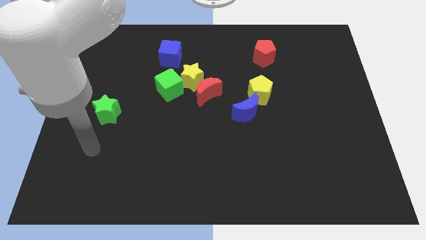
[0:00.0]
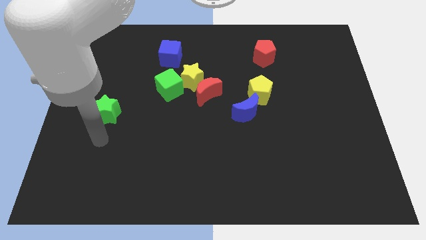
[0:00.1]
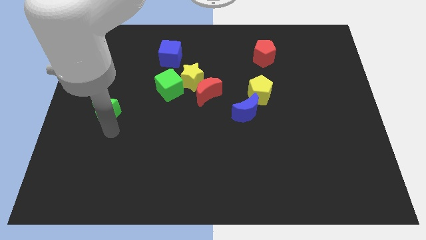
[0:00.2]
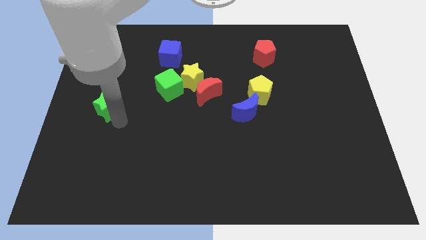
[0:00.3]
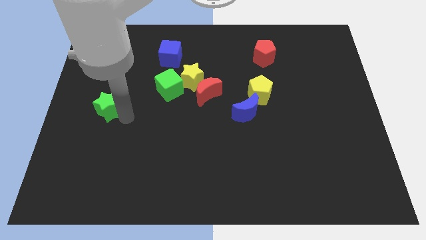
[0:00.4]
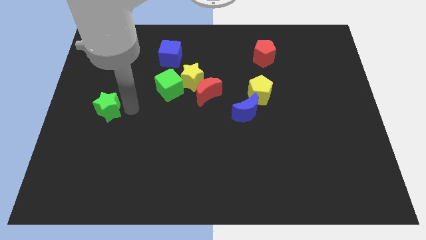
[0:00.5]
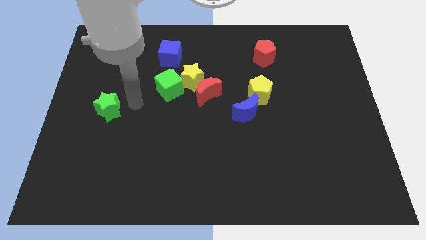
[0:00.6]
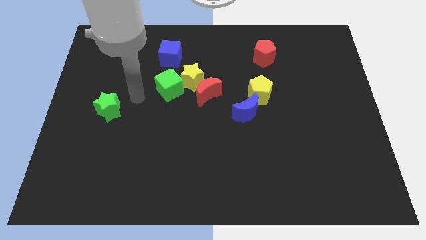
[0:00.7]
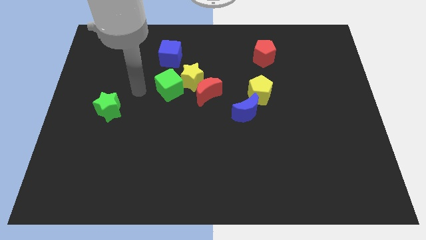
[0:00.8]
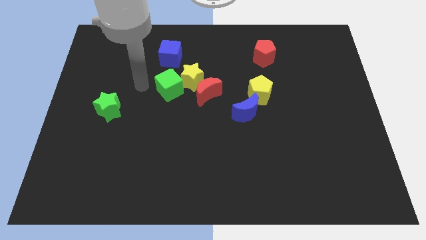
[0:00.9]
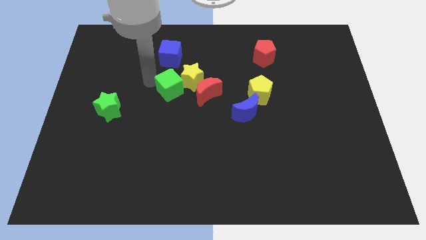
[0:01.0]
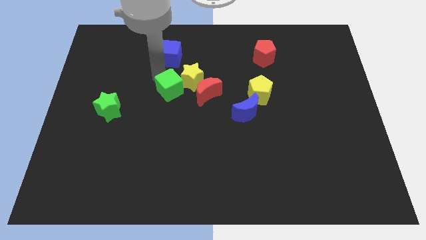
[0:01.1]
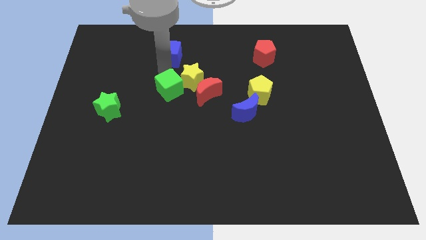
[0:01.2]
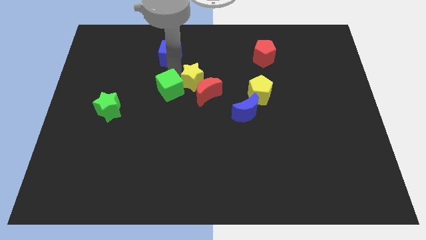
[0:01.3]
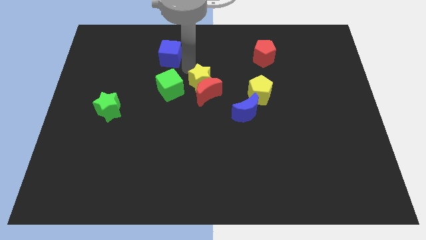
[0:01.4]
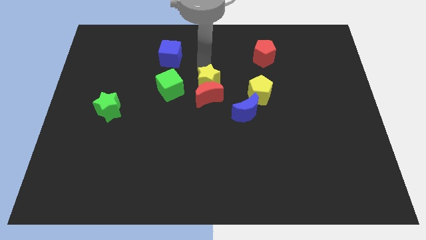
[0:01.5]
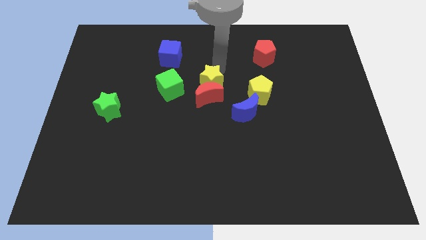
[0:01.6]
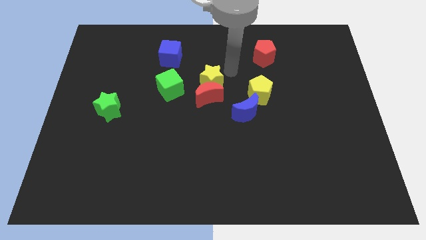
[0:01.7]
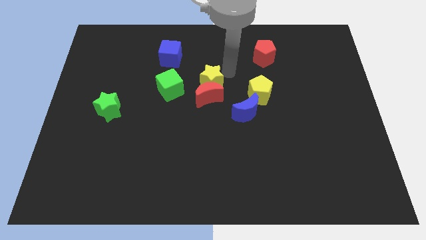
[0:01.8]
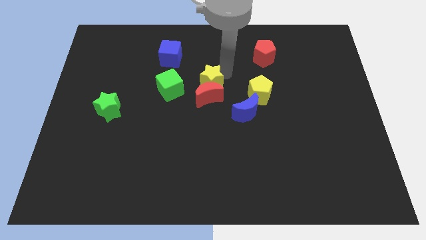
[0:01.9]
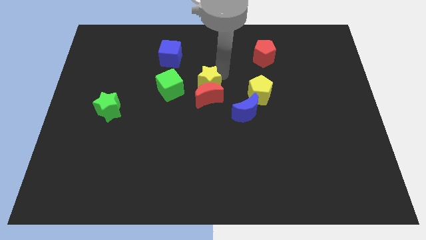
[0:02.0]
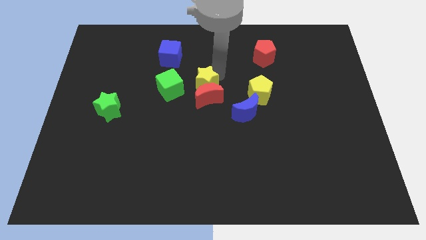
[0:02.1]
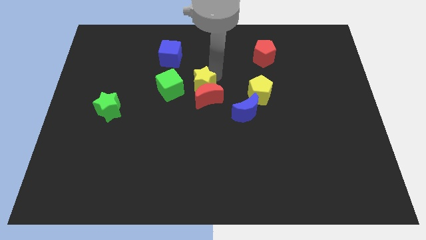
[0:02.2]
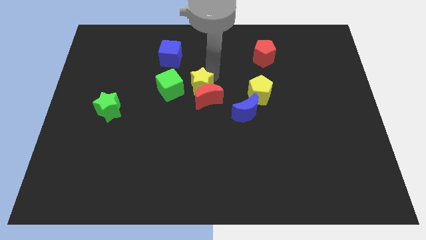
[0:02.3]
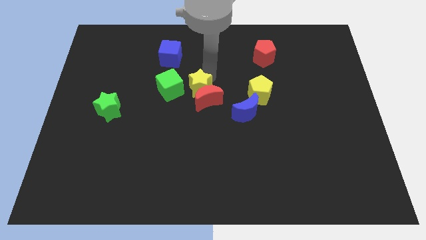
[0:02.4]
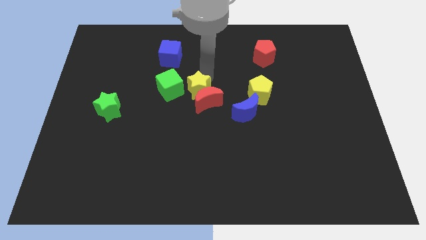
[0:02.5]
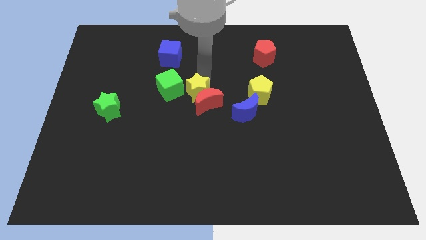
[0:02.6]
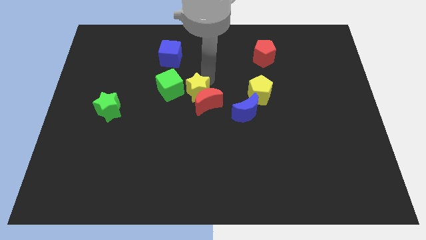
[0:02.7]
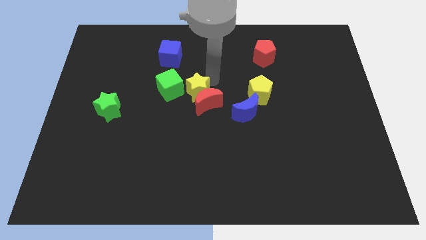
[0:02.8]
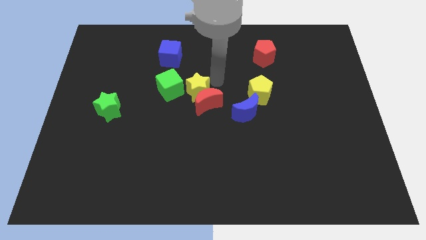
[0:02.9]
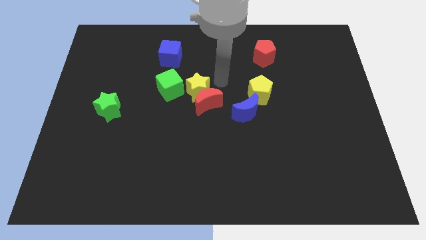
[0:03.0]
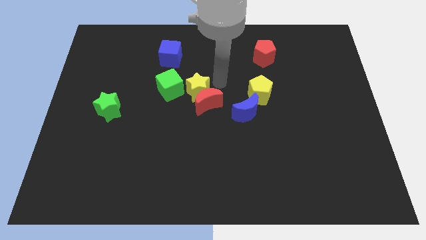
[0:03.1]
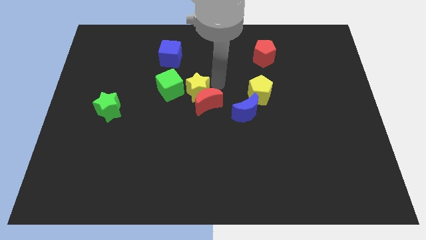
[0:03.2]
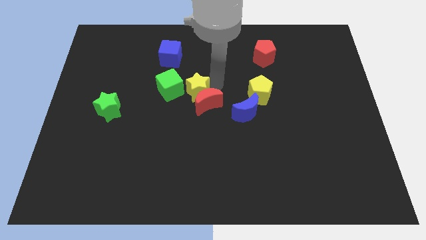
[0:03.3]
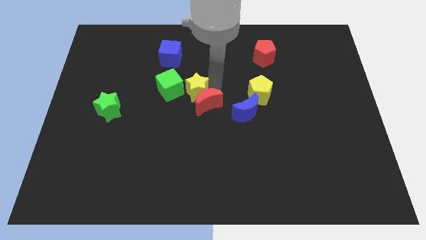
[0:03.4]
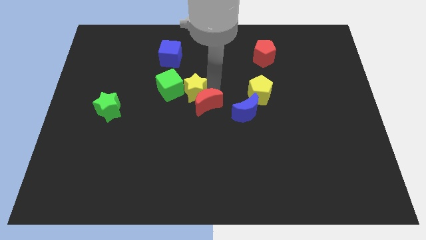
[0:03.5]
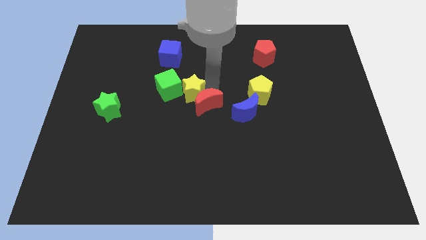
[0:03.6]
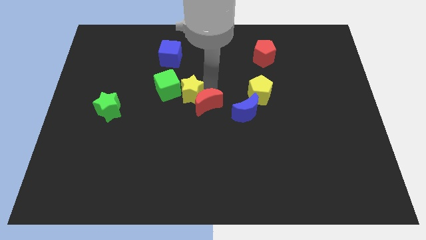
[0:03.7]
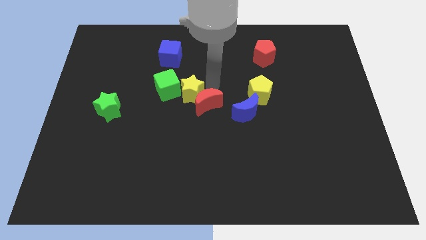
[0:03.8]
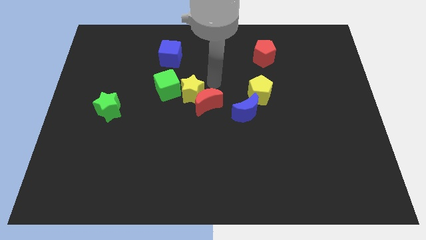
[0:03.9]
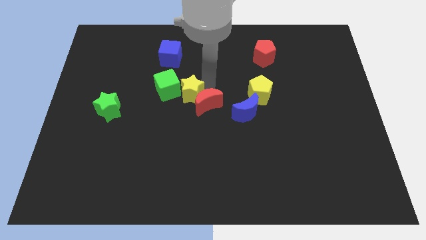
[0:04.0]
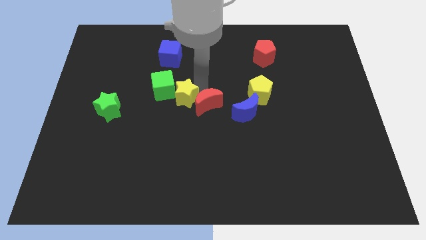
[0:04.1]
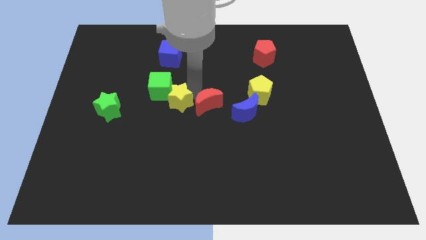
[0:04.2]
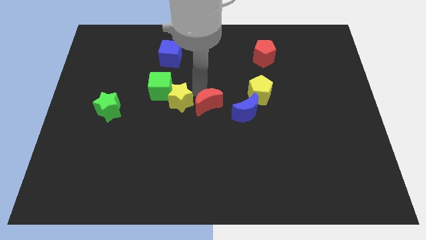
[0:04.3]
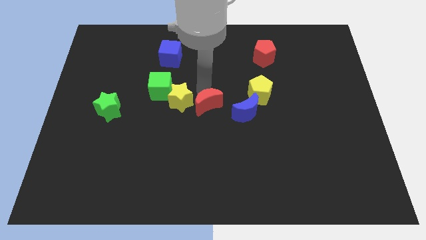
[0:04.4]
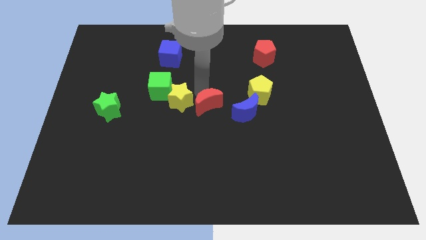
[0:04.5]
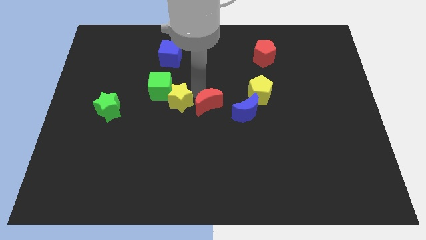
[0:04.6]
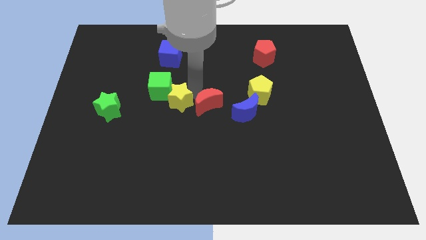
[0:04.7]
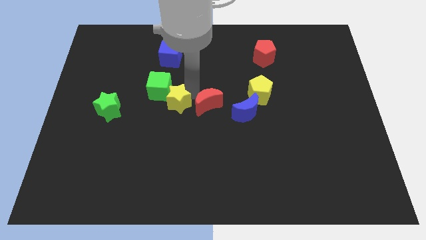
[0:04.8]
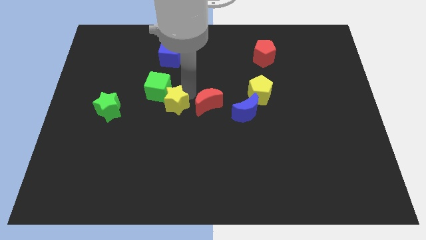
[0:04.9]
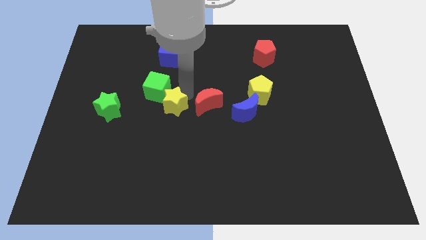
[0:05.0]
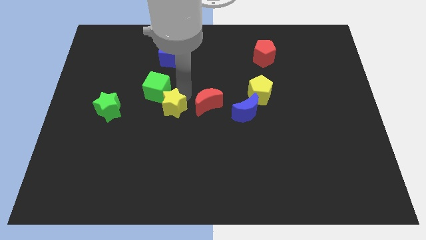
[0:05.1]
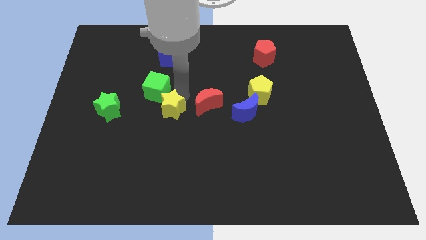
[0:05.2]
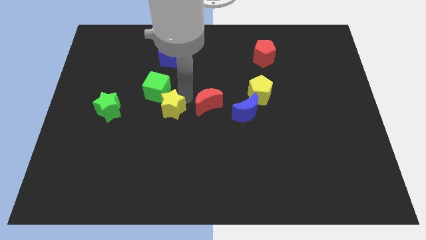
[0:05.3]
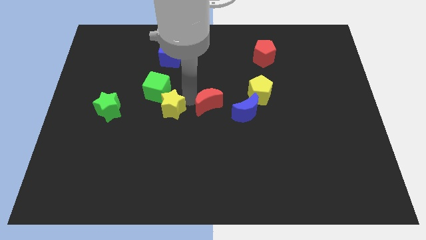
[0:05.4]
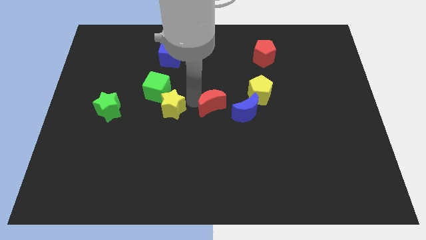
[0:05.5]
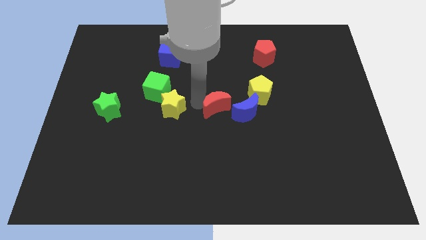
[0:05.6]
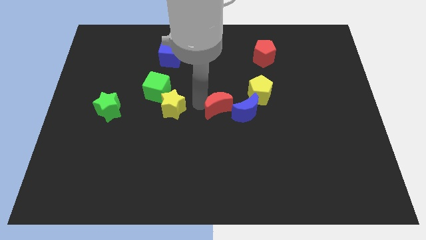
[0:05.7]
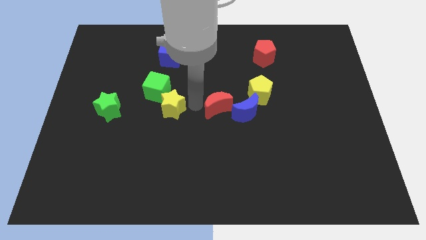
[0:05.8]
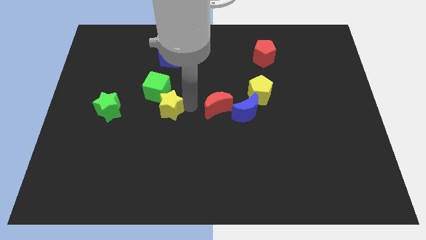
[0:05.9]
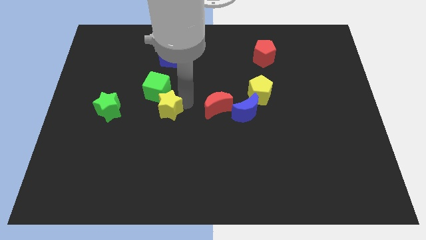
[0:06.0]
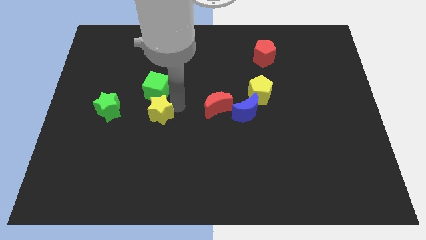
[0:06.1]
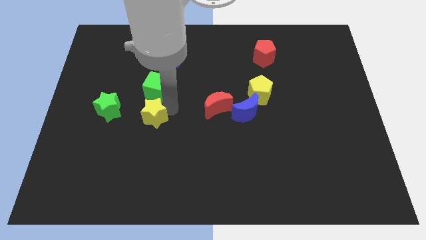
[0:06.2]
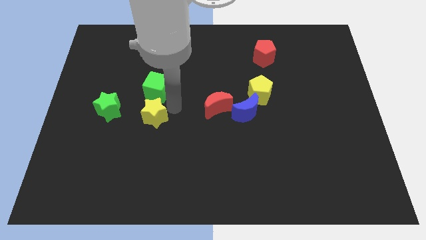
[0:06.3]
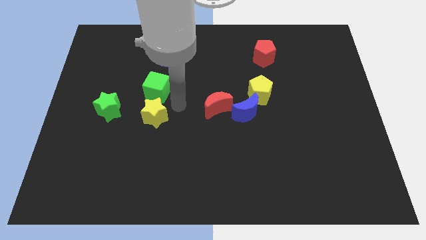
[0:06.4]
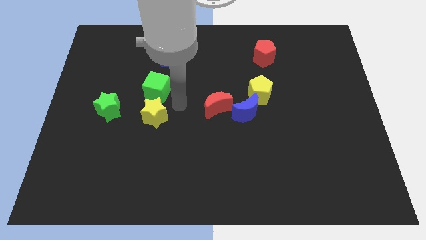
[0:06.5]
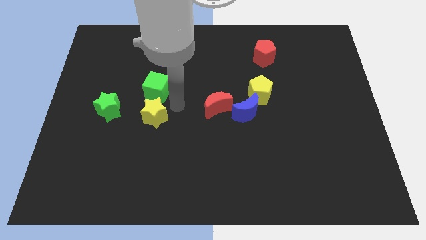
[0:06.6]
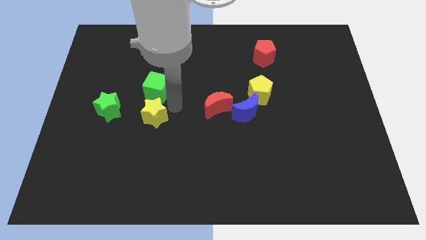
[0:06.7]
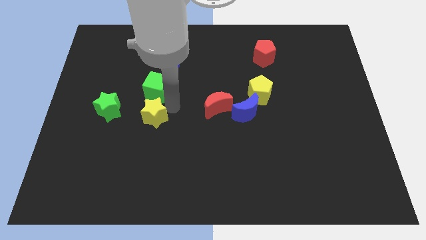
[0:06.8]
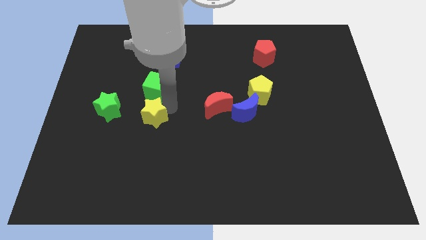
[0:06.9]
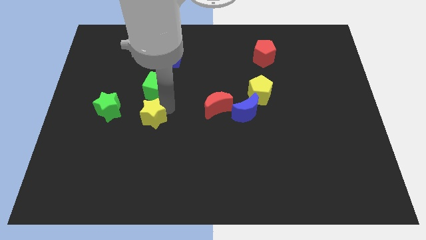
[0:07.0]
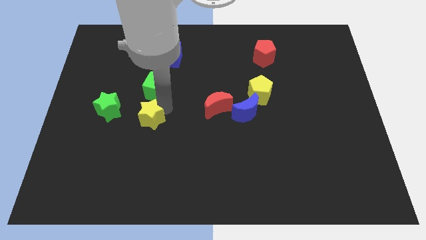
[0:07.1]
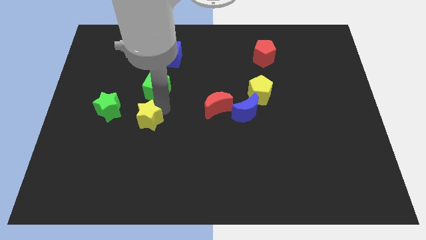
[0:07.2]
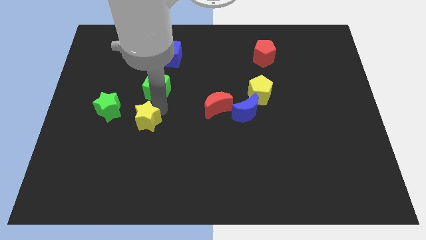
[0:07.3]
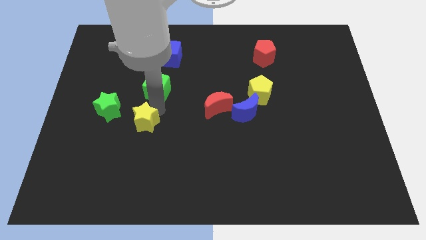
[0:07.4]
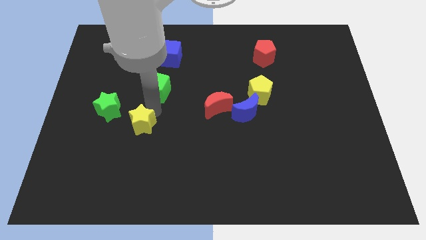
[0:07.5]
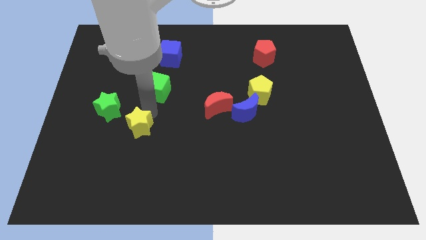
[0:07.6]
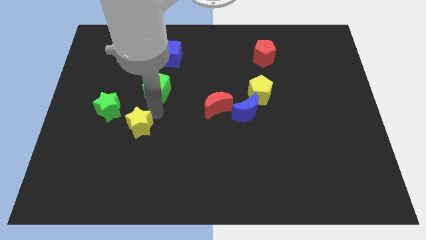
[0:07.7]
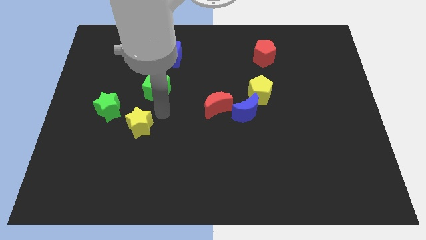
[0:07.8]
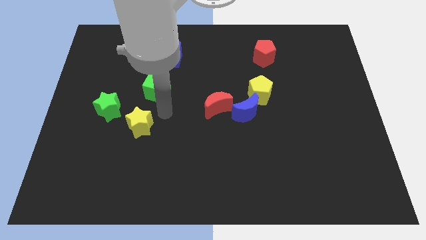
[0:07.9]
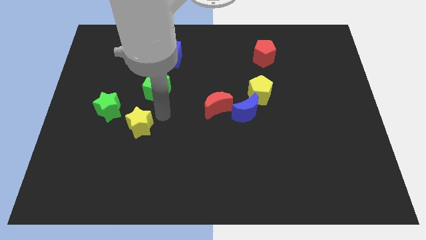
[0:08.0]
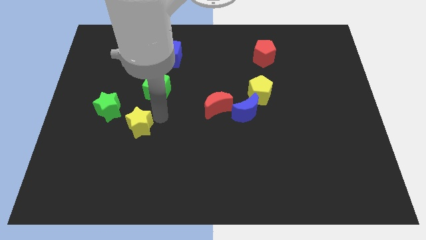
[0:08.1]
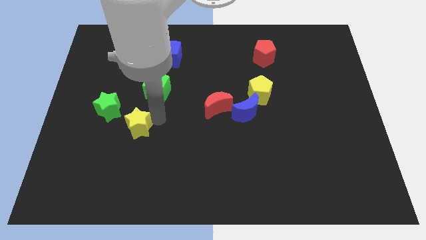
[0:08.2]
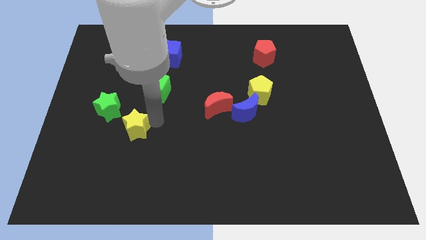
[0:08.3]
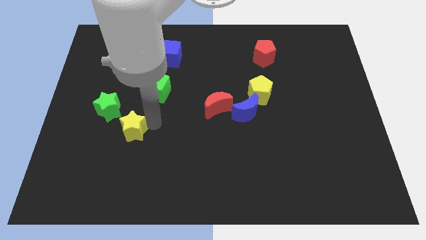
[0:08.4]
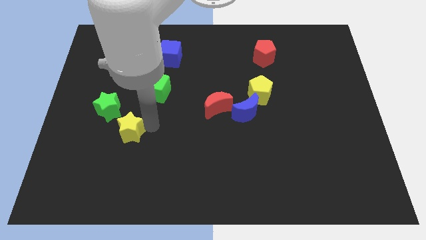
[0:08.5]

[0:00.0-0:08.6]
move the yellow star down and to the left diagonally
